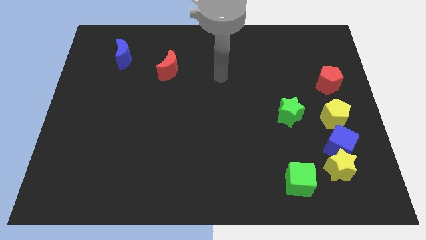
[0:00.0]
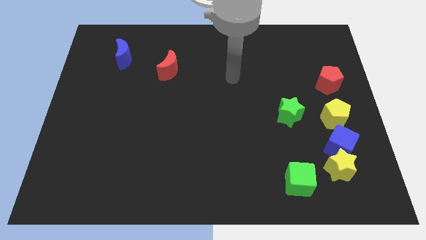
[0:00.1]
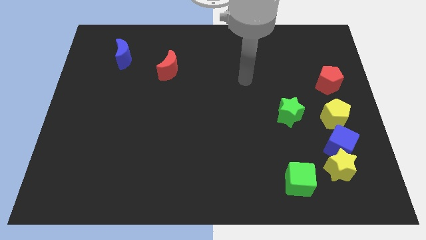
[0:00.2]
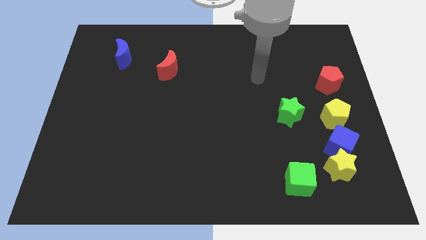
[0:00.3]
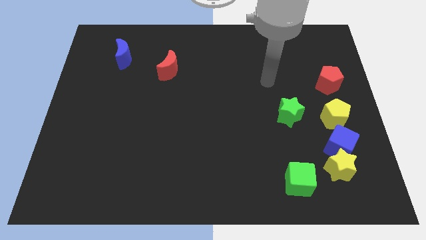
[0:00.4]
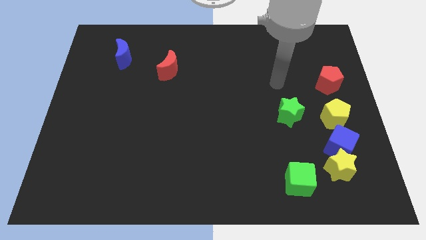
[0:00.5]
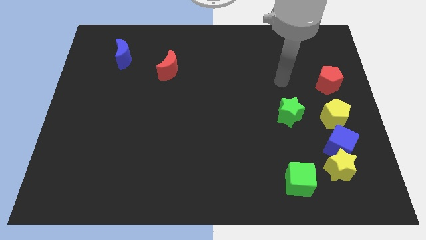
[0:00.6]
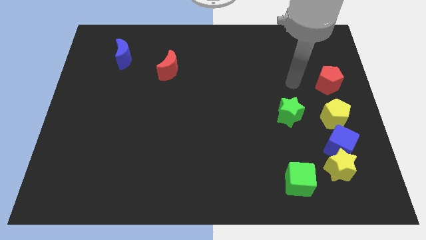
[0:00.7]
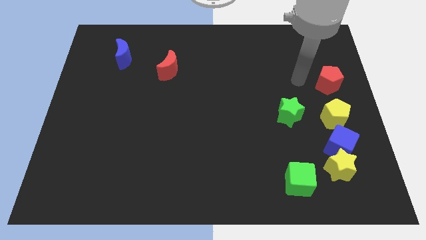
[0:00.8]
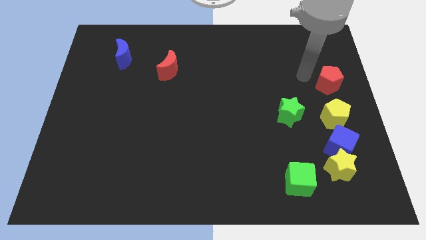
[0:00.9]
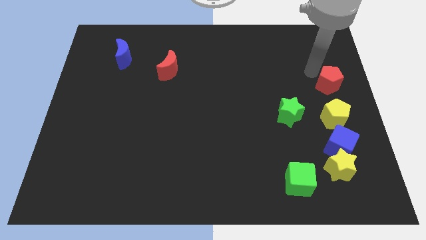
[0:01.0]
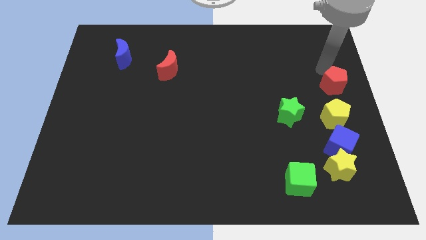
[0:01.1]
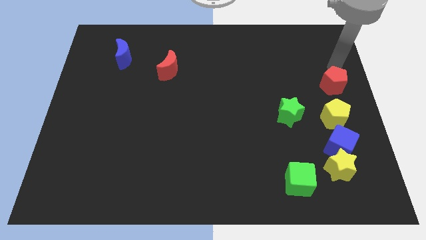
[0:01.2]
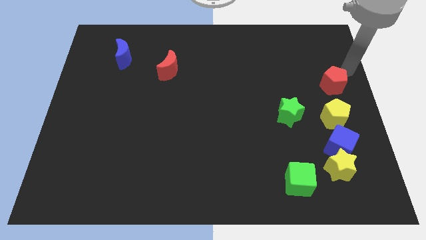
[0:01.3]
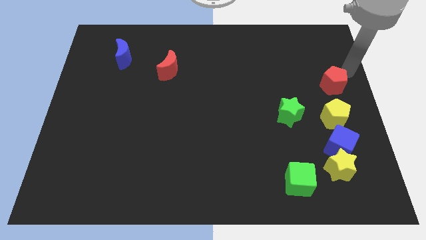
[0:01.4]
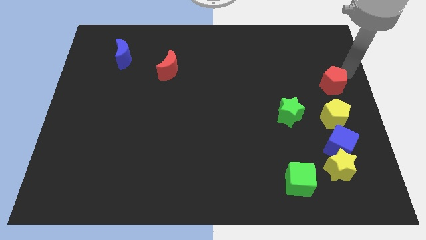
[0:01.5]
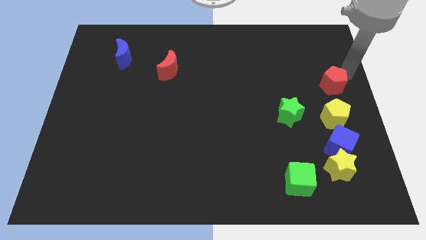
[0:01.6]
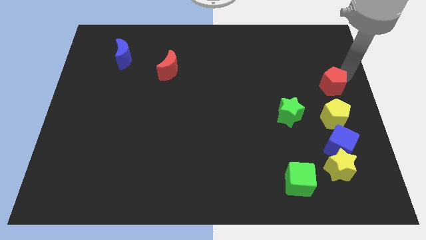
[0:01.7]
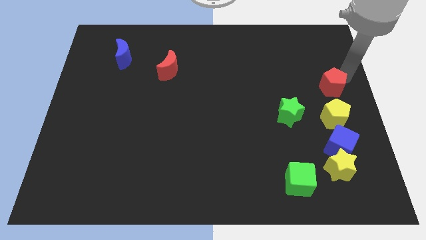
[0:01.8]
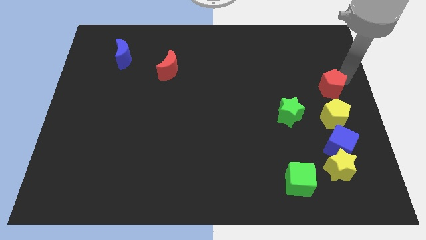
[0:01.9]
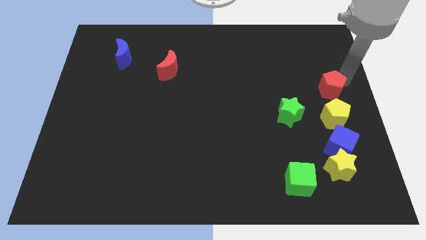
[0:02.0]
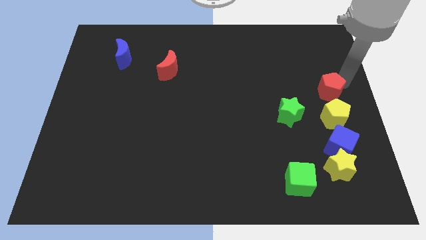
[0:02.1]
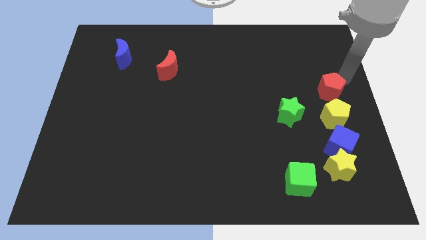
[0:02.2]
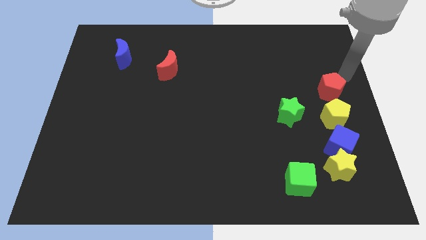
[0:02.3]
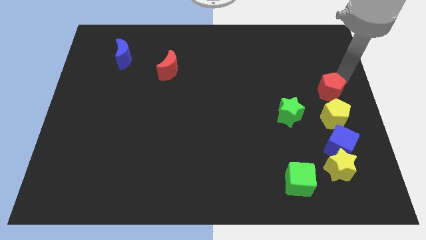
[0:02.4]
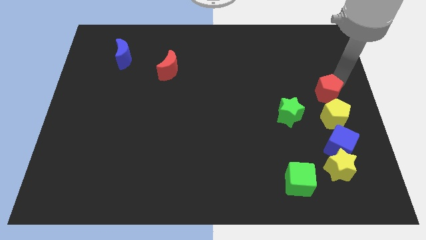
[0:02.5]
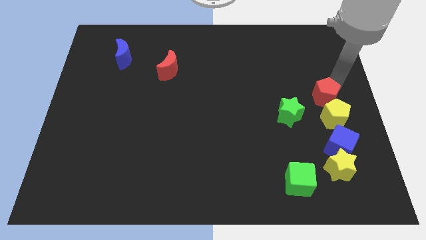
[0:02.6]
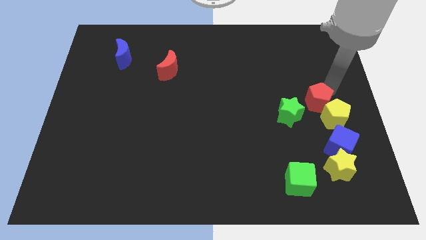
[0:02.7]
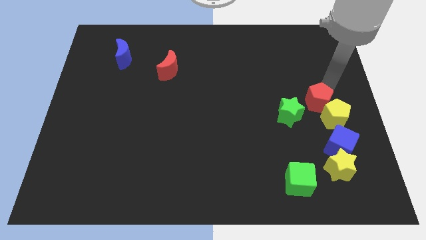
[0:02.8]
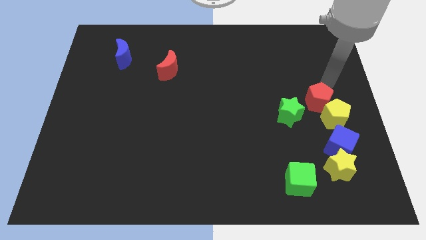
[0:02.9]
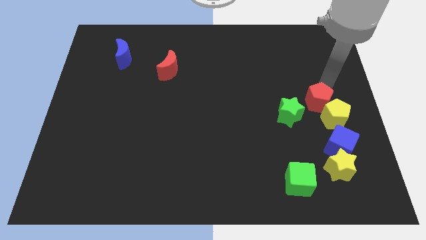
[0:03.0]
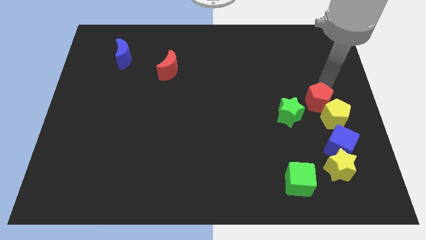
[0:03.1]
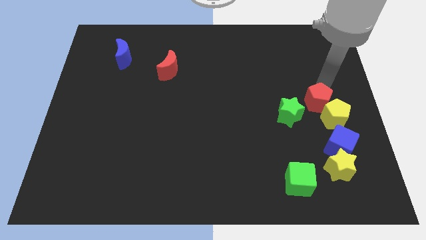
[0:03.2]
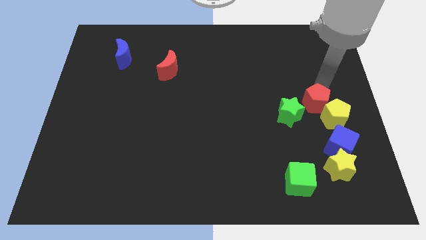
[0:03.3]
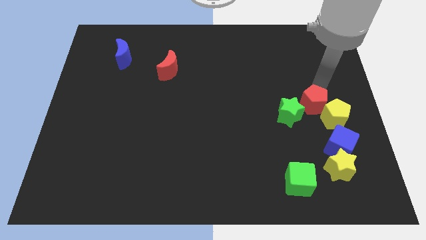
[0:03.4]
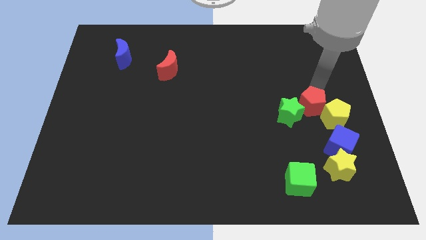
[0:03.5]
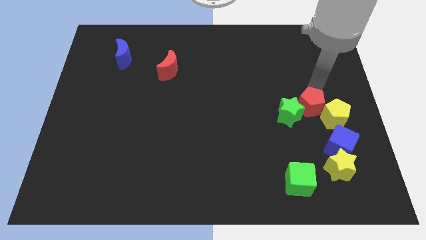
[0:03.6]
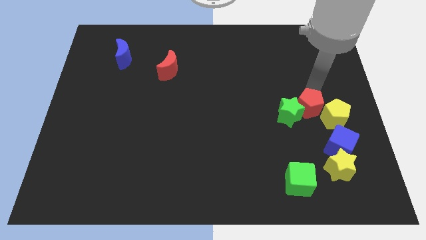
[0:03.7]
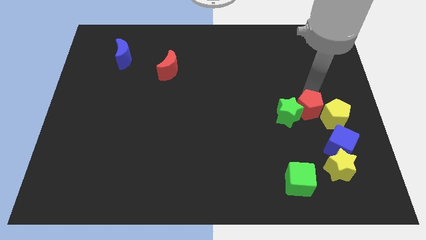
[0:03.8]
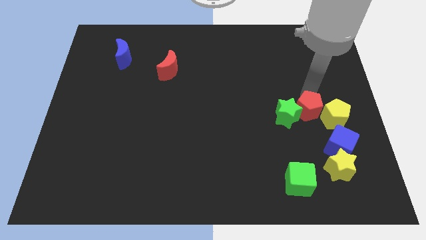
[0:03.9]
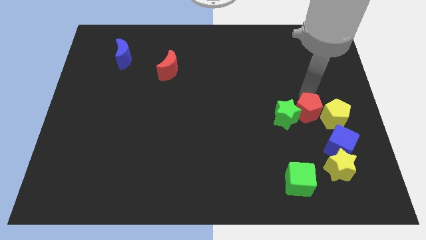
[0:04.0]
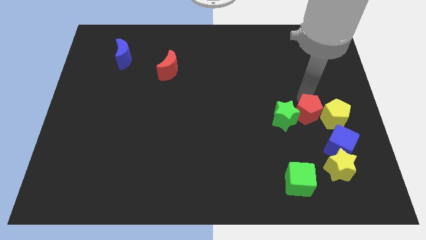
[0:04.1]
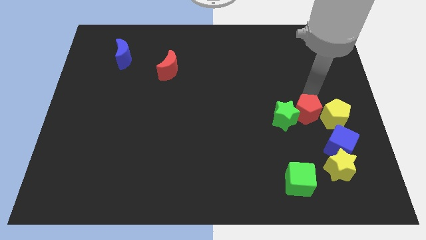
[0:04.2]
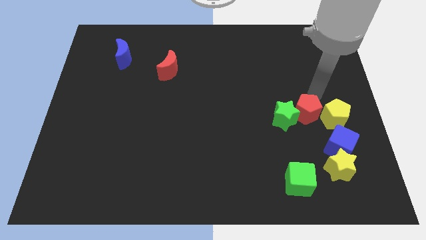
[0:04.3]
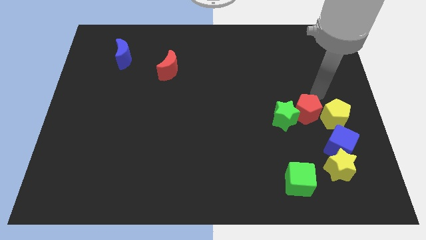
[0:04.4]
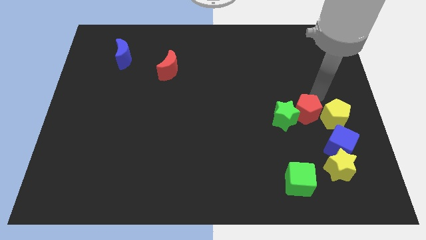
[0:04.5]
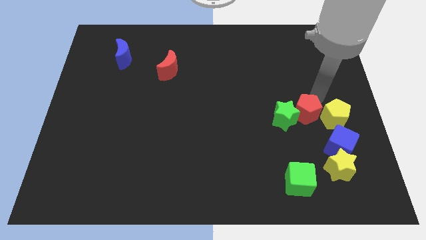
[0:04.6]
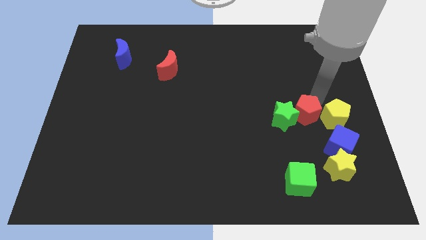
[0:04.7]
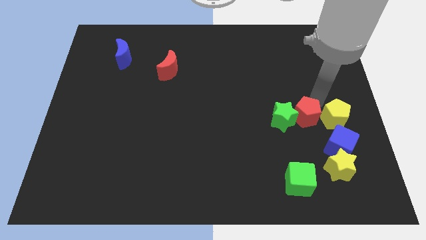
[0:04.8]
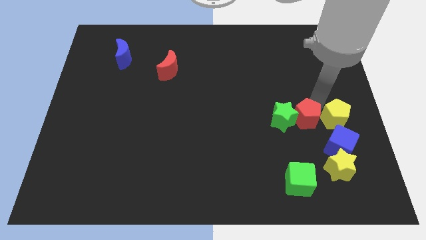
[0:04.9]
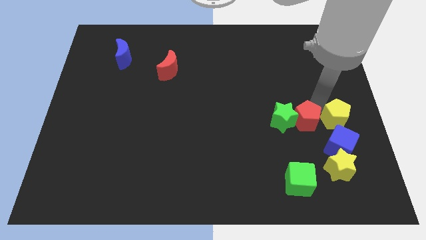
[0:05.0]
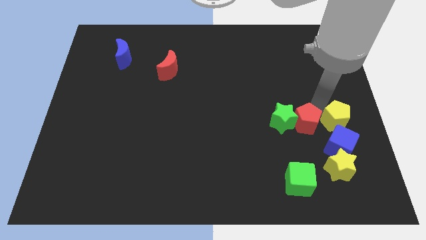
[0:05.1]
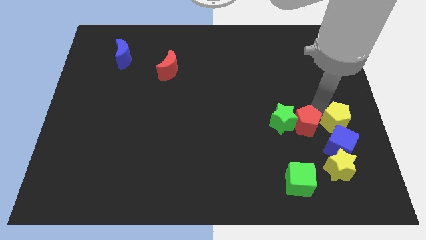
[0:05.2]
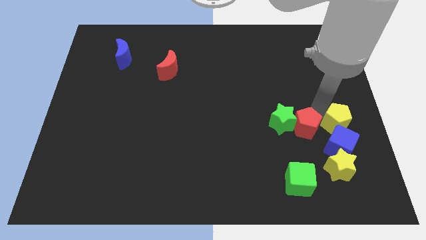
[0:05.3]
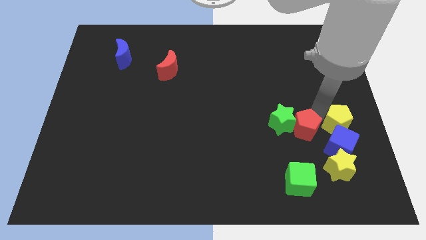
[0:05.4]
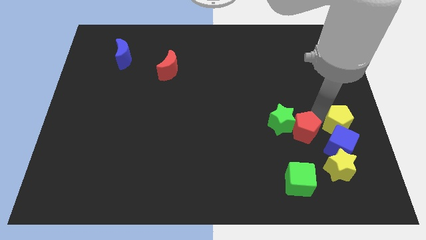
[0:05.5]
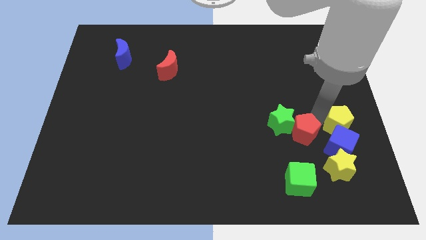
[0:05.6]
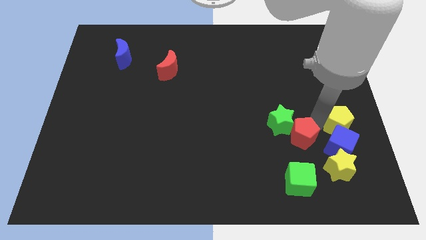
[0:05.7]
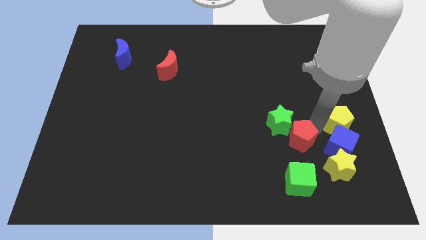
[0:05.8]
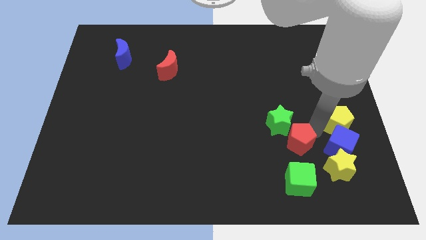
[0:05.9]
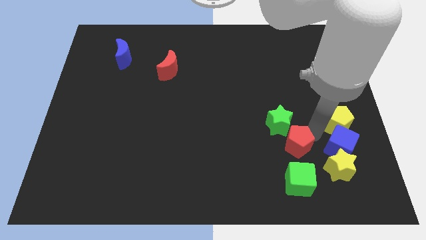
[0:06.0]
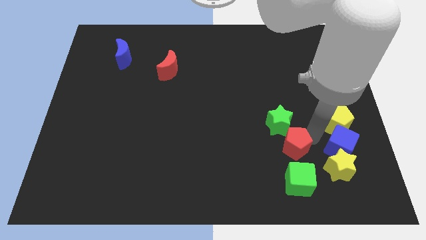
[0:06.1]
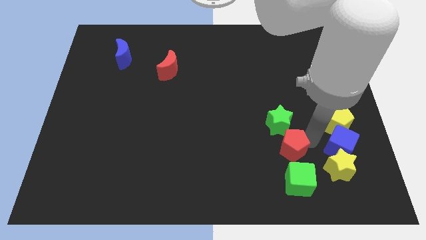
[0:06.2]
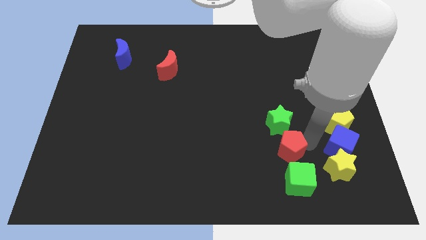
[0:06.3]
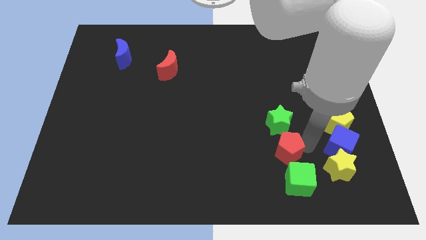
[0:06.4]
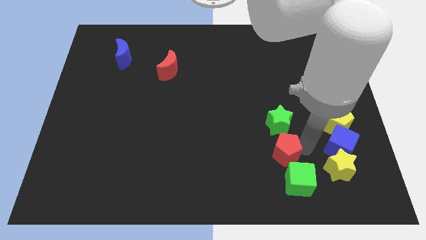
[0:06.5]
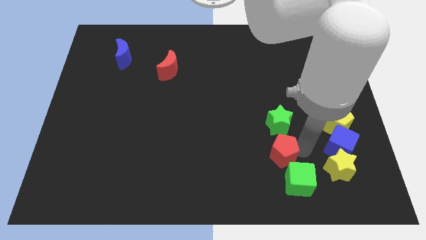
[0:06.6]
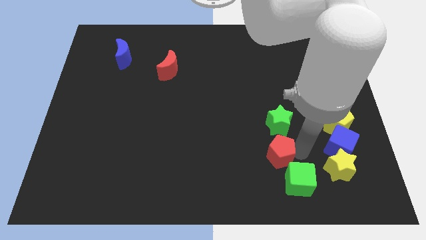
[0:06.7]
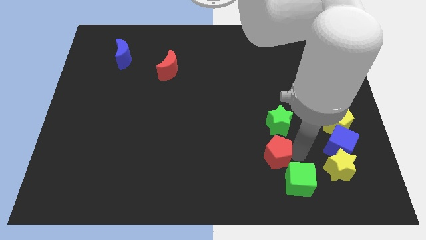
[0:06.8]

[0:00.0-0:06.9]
move the red pentagon to the bottom left side of the green star

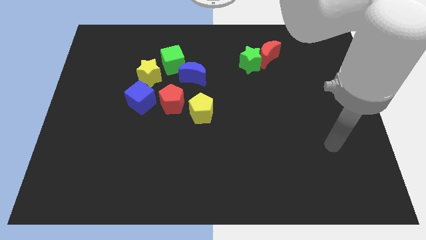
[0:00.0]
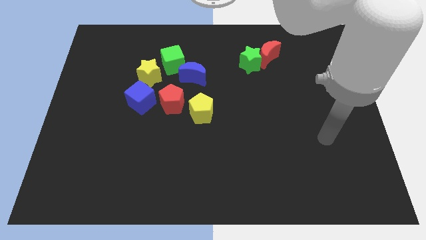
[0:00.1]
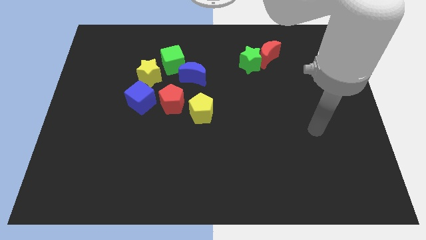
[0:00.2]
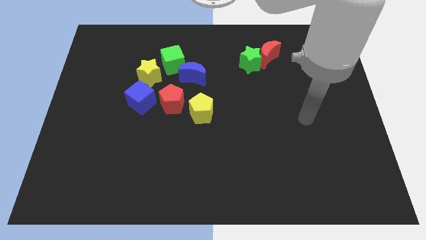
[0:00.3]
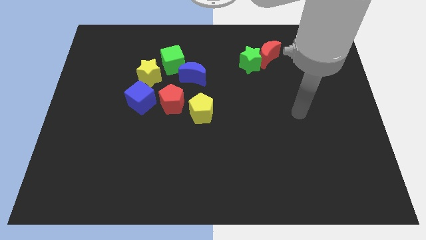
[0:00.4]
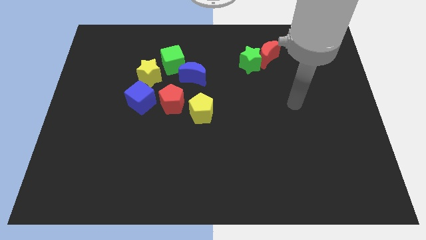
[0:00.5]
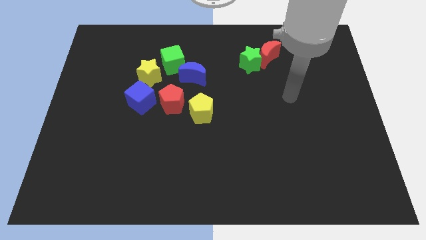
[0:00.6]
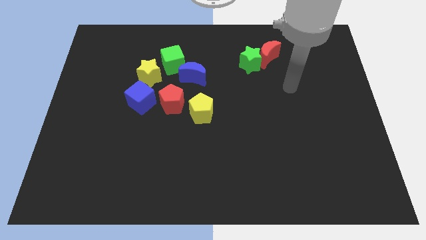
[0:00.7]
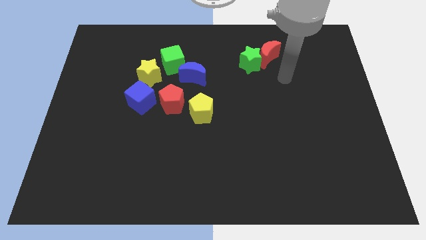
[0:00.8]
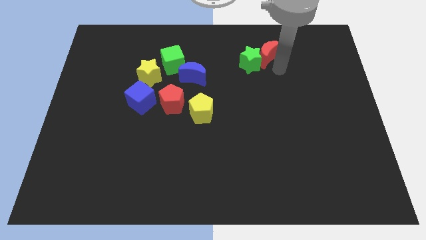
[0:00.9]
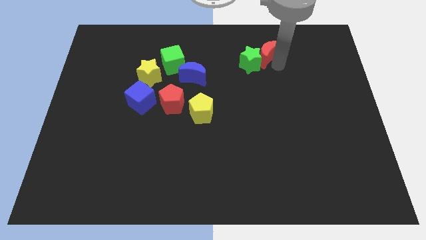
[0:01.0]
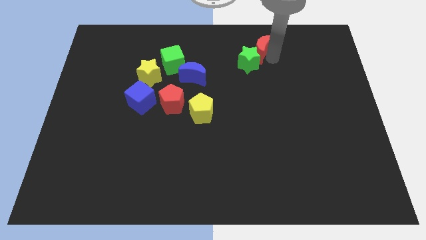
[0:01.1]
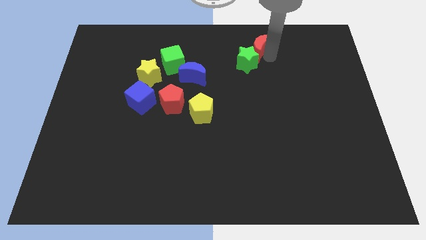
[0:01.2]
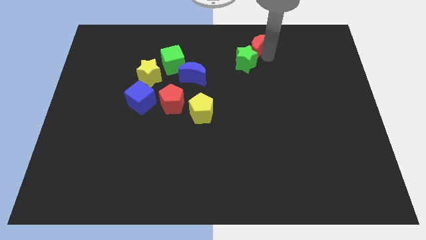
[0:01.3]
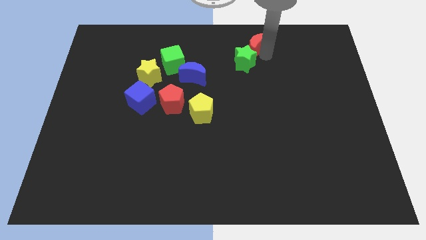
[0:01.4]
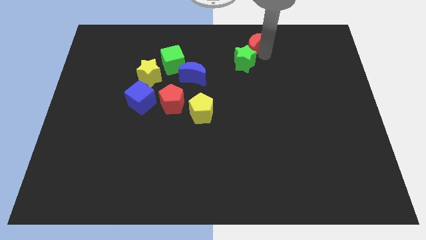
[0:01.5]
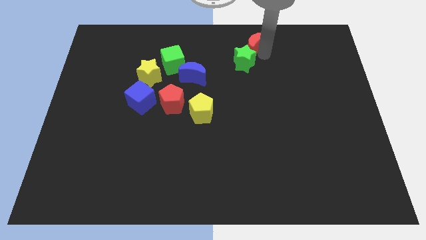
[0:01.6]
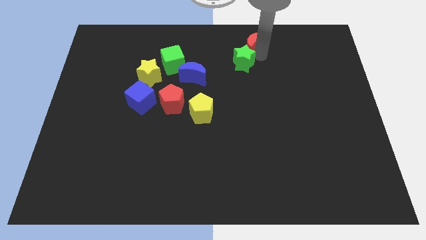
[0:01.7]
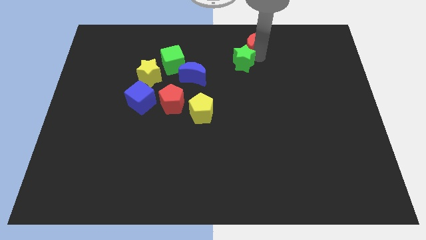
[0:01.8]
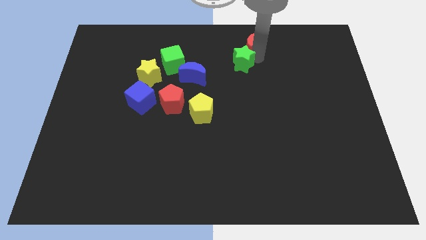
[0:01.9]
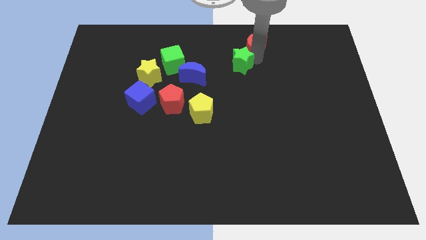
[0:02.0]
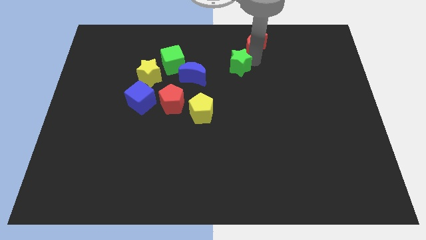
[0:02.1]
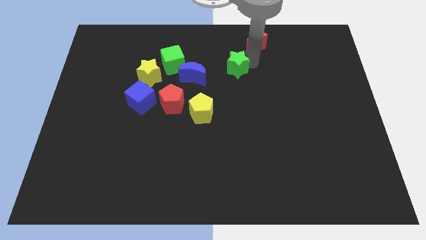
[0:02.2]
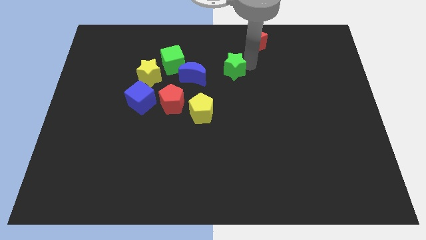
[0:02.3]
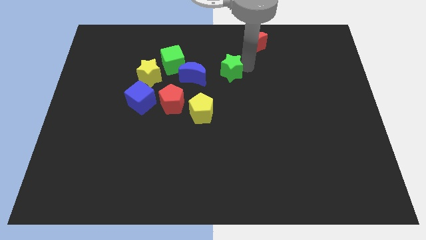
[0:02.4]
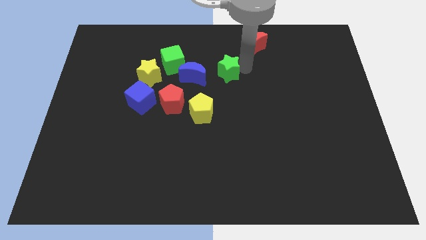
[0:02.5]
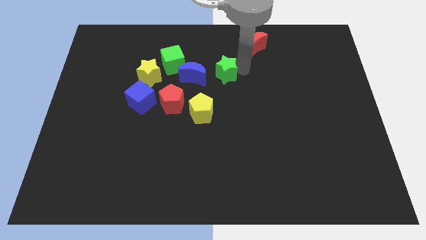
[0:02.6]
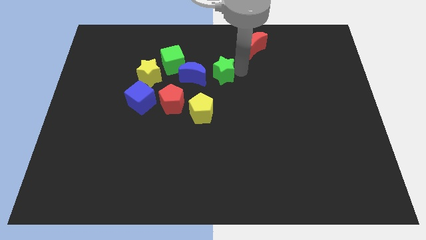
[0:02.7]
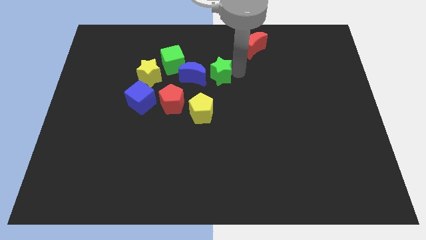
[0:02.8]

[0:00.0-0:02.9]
push the green star to the top of the yellow pentagon
